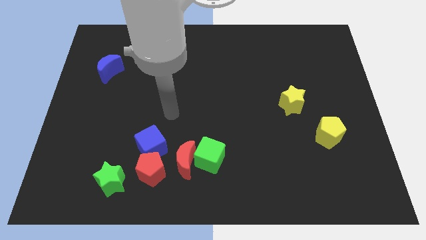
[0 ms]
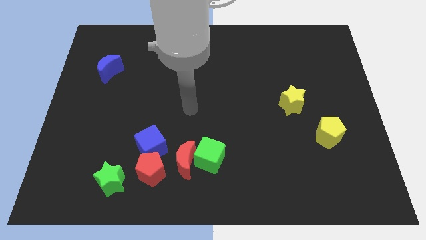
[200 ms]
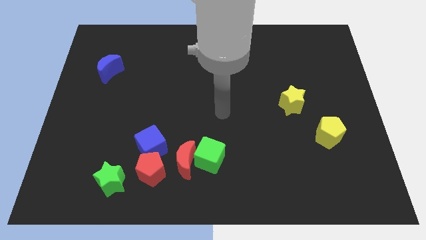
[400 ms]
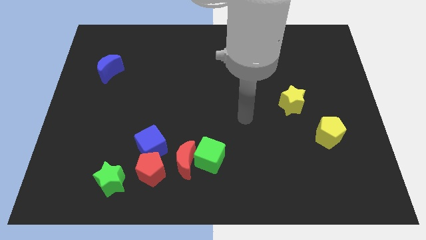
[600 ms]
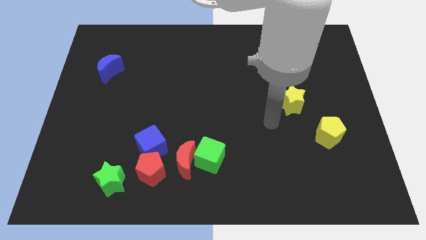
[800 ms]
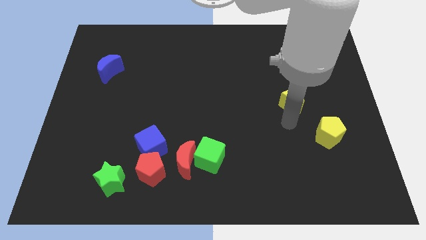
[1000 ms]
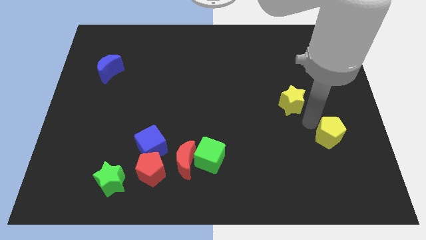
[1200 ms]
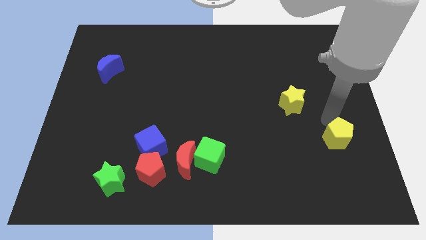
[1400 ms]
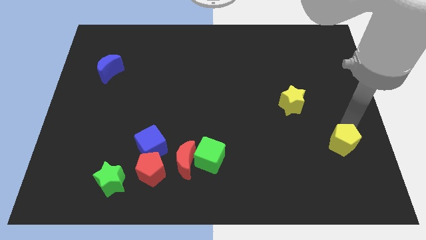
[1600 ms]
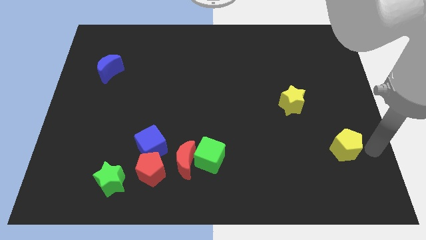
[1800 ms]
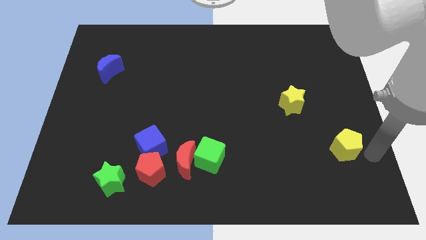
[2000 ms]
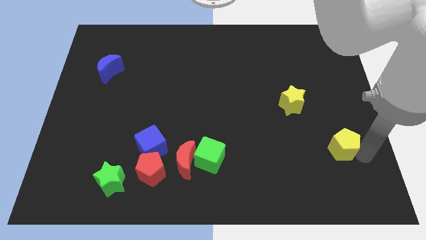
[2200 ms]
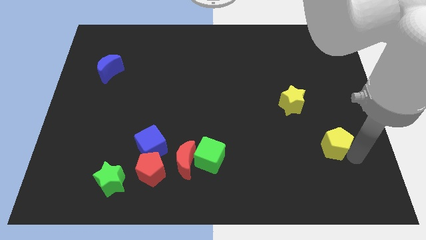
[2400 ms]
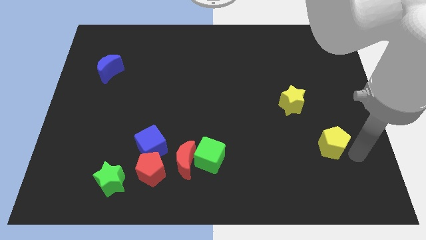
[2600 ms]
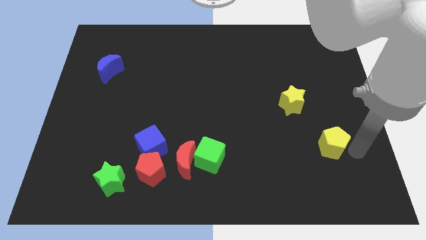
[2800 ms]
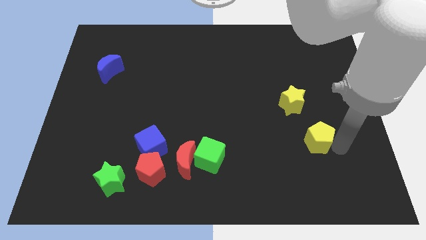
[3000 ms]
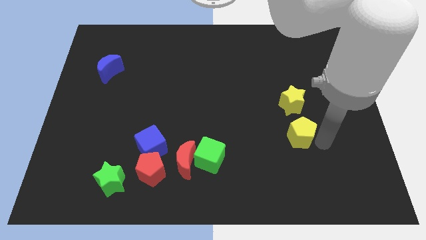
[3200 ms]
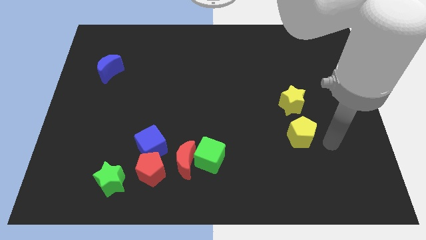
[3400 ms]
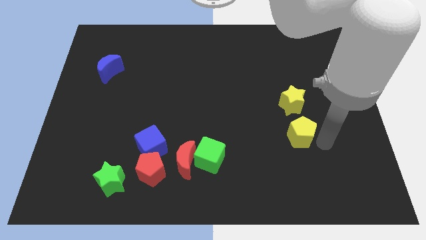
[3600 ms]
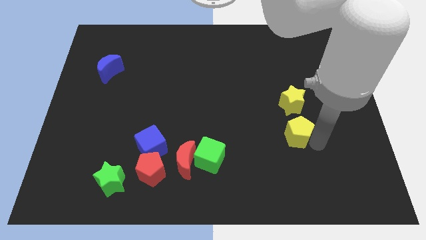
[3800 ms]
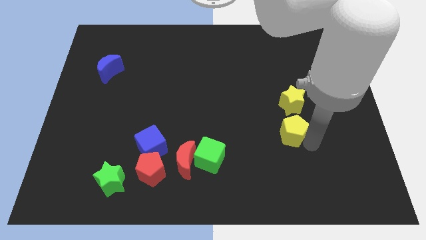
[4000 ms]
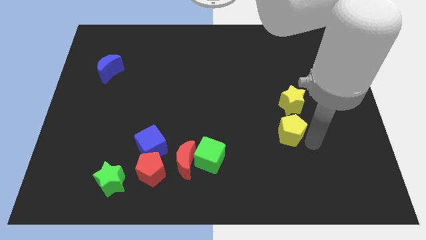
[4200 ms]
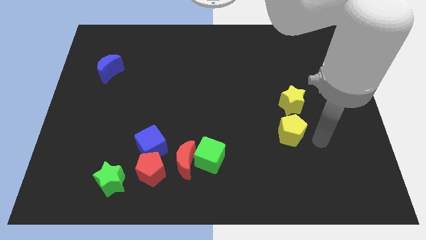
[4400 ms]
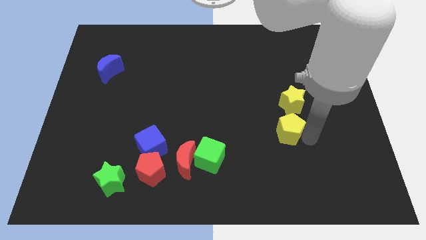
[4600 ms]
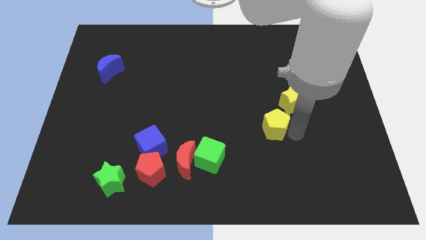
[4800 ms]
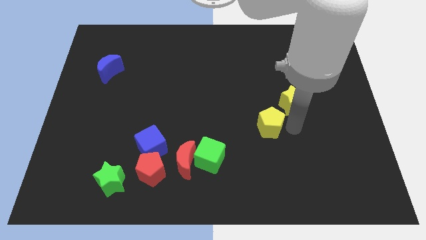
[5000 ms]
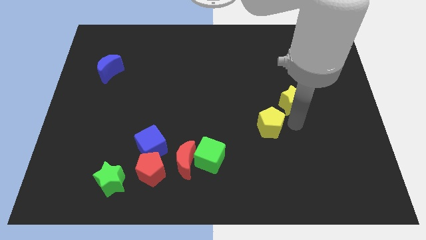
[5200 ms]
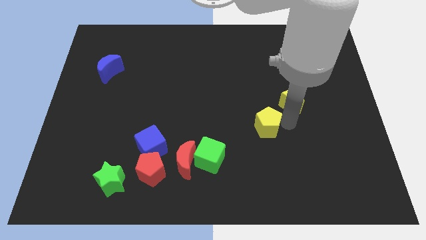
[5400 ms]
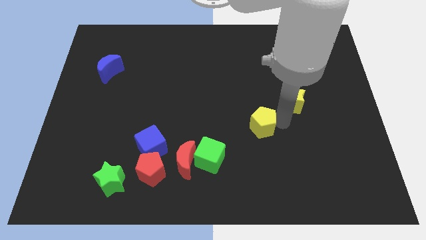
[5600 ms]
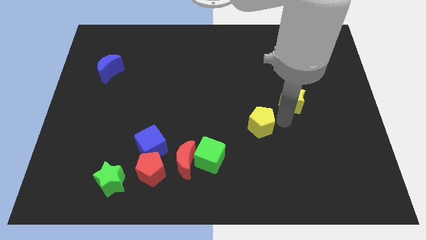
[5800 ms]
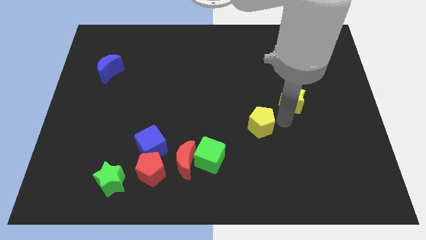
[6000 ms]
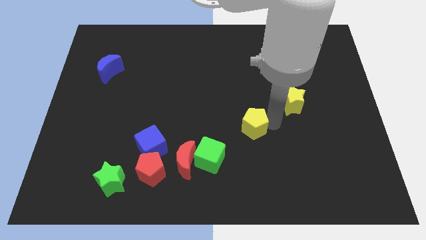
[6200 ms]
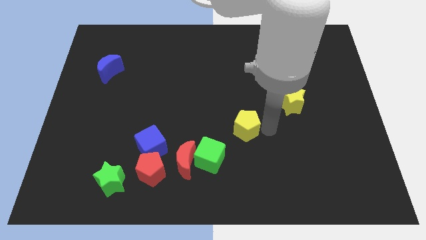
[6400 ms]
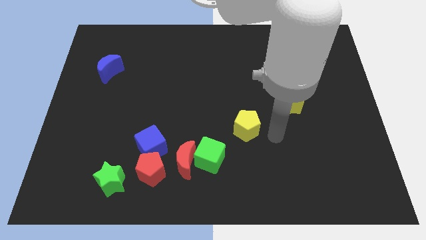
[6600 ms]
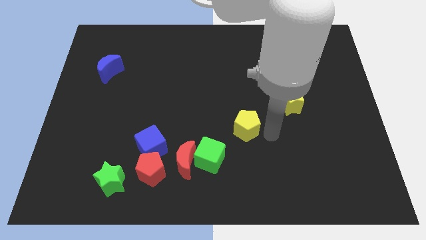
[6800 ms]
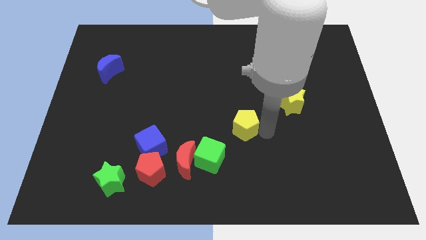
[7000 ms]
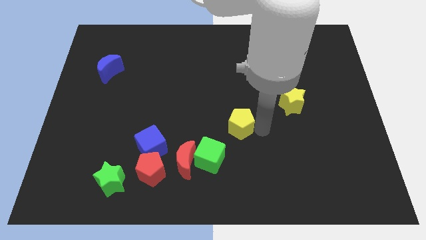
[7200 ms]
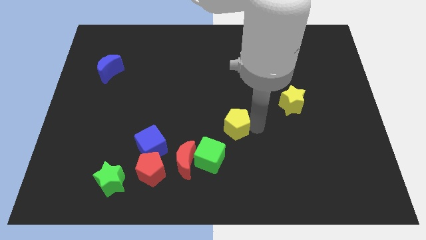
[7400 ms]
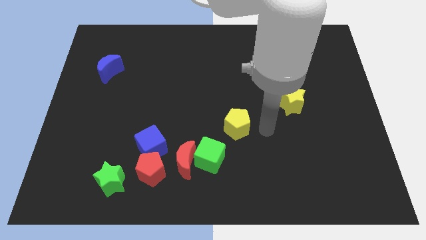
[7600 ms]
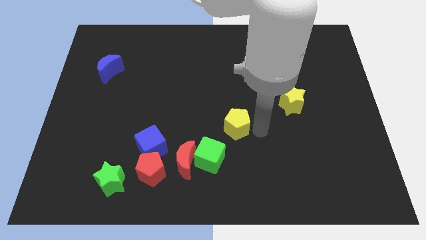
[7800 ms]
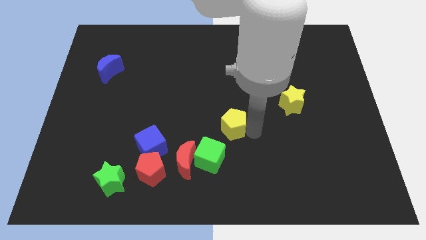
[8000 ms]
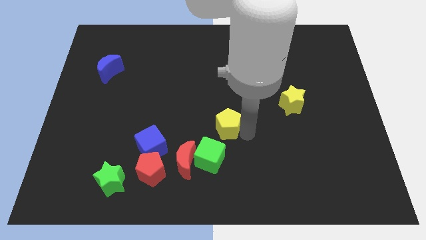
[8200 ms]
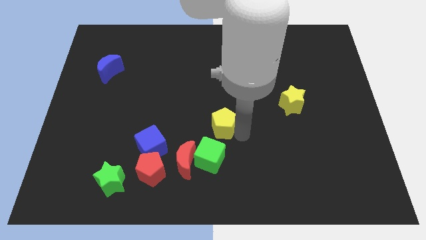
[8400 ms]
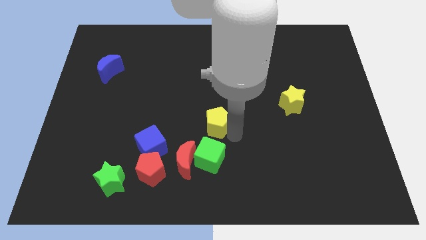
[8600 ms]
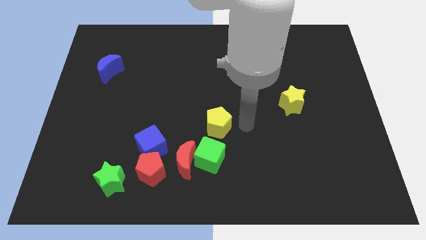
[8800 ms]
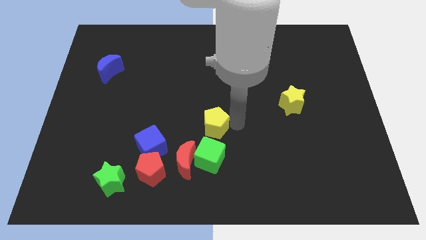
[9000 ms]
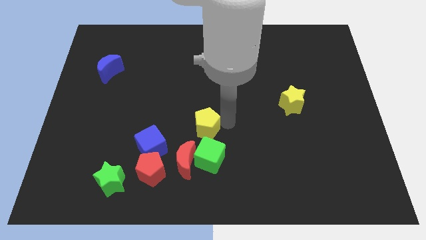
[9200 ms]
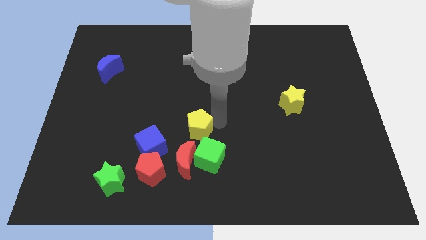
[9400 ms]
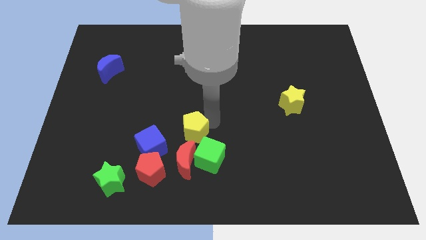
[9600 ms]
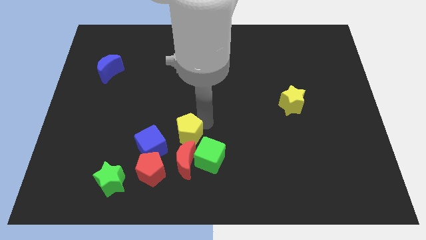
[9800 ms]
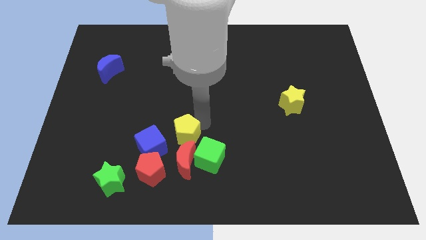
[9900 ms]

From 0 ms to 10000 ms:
slide the yellow pentagon to the top left side of the red moon

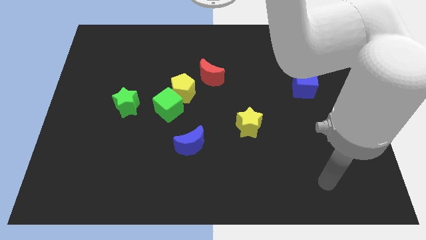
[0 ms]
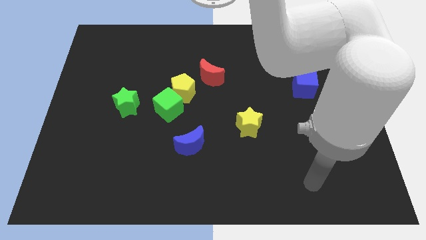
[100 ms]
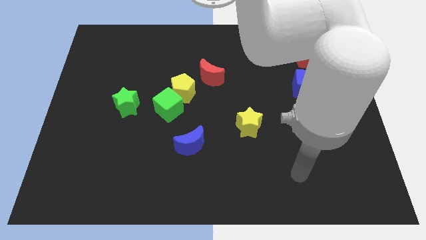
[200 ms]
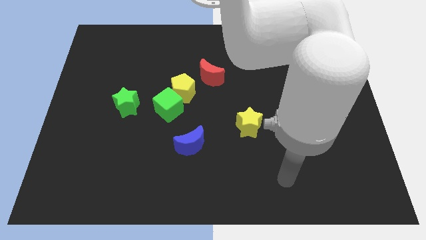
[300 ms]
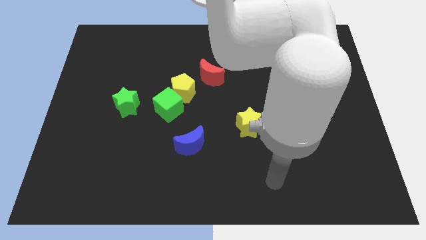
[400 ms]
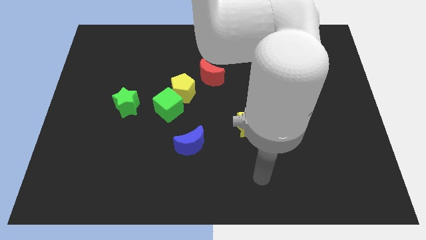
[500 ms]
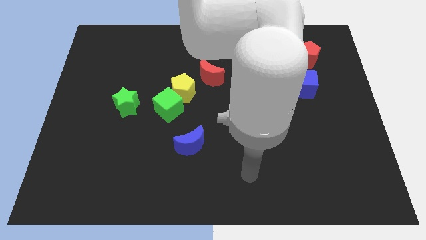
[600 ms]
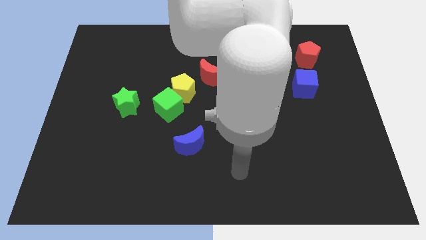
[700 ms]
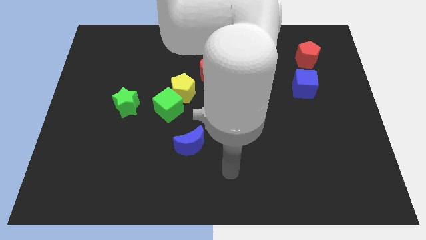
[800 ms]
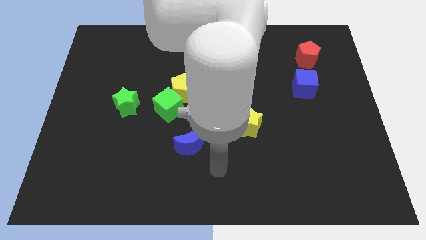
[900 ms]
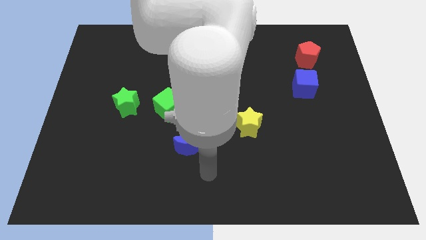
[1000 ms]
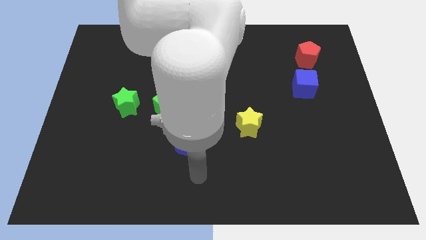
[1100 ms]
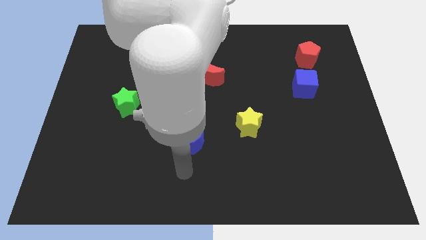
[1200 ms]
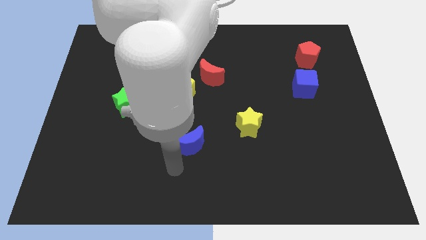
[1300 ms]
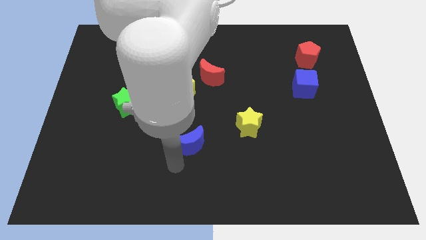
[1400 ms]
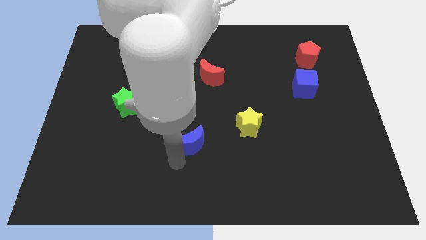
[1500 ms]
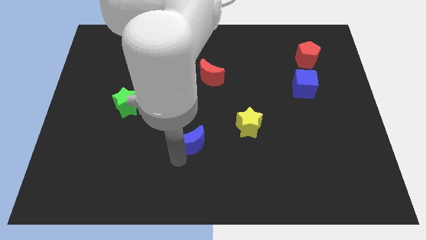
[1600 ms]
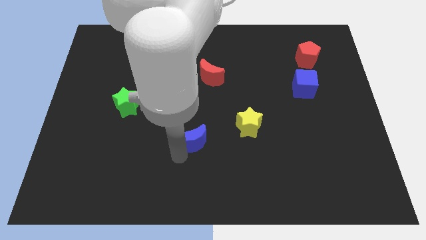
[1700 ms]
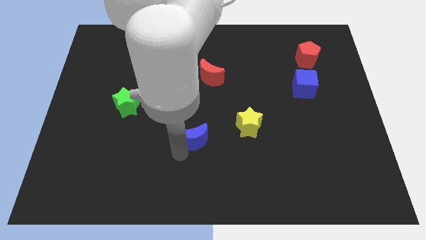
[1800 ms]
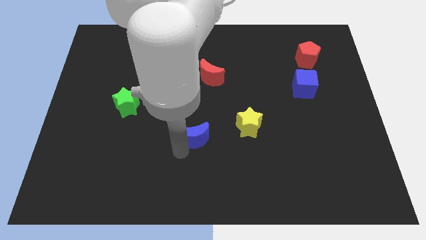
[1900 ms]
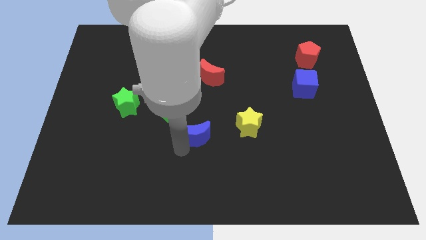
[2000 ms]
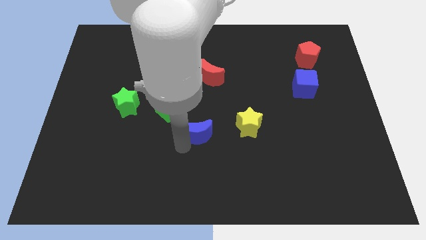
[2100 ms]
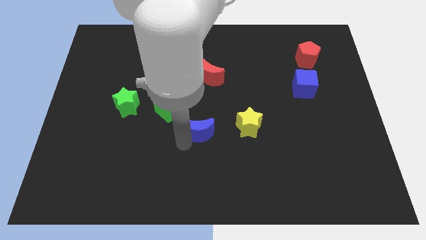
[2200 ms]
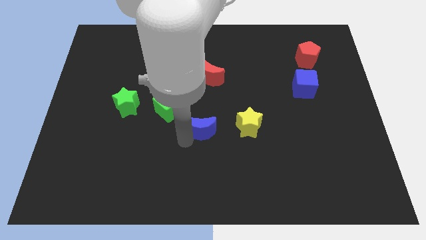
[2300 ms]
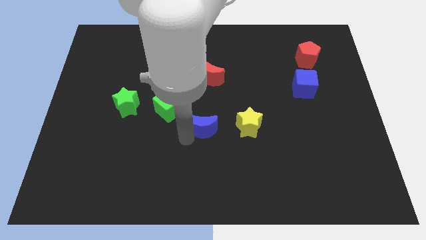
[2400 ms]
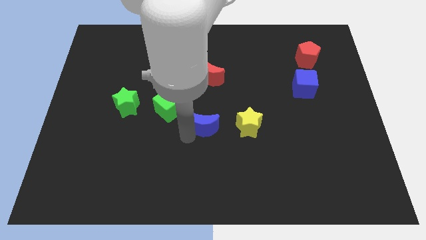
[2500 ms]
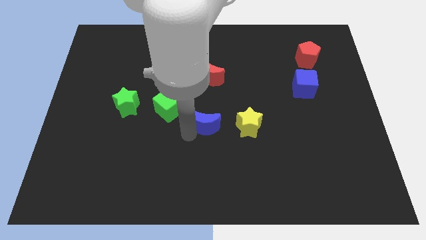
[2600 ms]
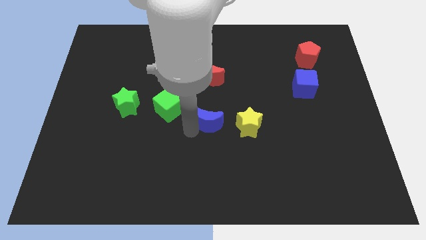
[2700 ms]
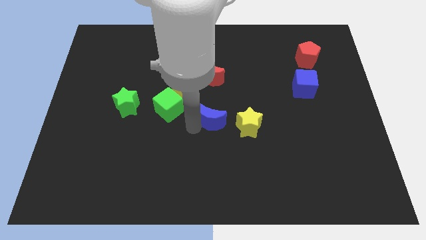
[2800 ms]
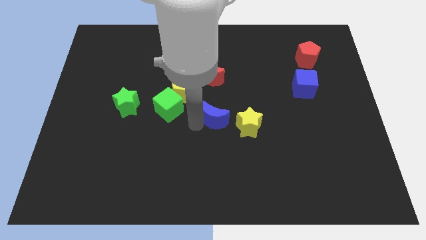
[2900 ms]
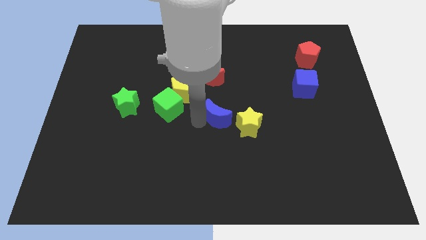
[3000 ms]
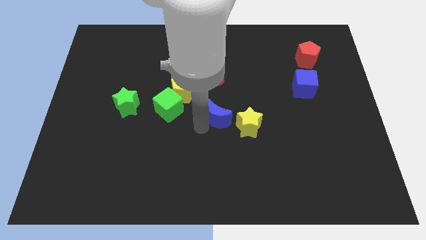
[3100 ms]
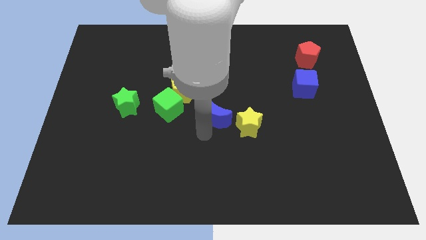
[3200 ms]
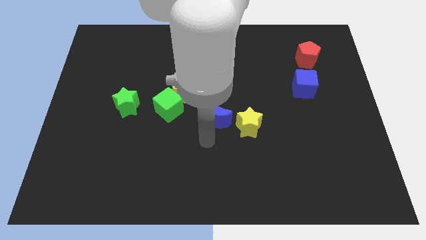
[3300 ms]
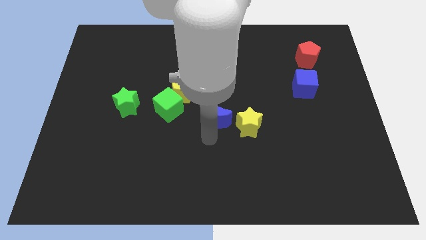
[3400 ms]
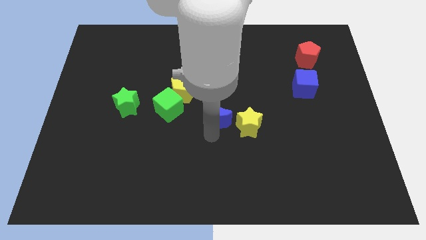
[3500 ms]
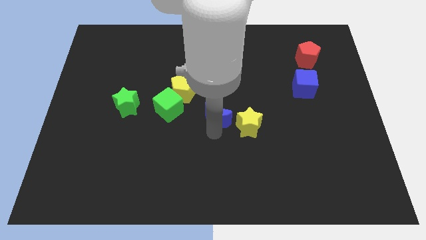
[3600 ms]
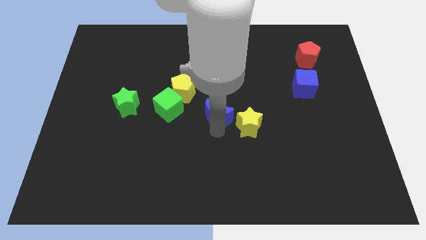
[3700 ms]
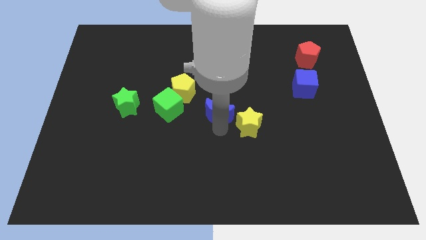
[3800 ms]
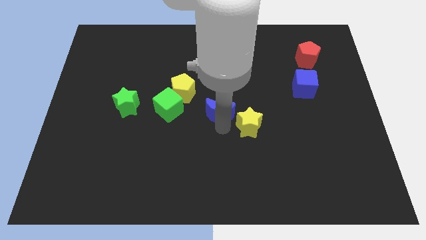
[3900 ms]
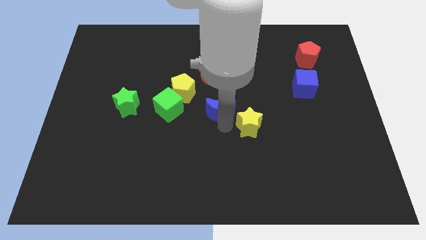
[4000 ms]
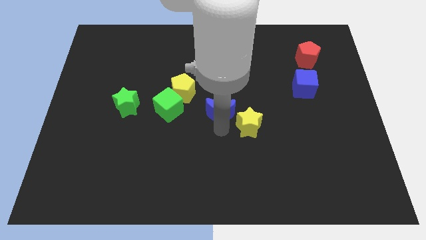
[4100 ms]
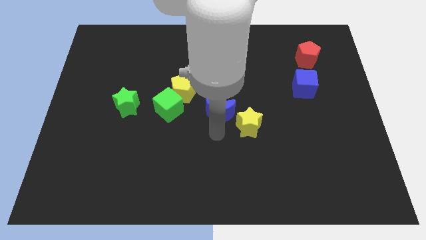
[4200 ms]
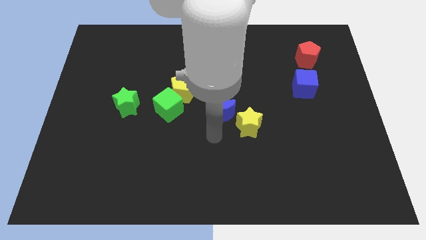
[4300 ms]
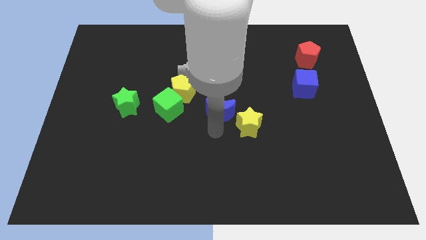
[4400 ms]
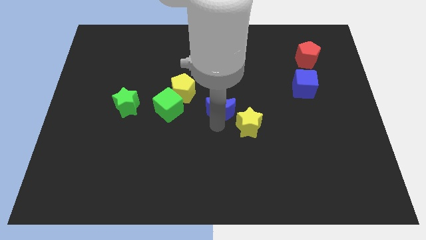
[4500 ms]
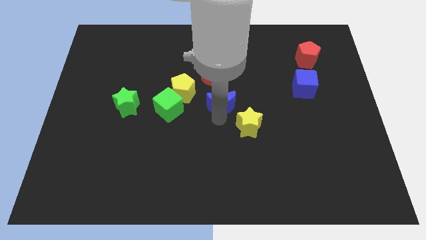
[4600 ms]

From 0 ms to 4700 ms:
move the blue moon to the right of the yellow pentagon
